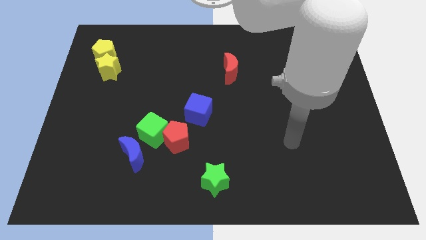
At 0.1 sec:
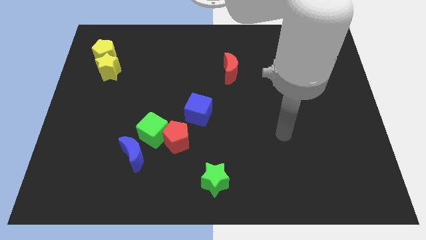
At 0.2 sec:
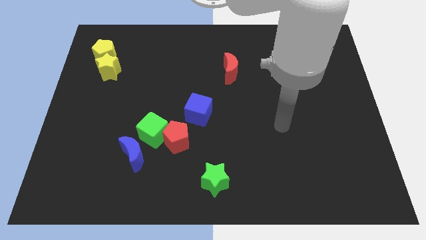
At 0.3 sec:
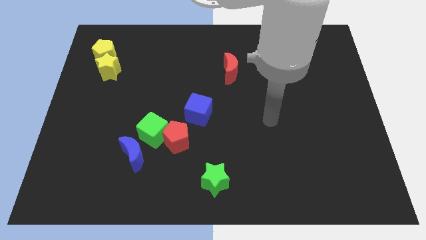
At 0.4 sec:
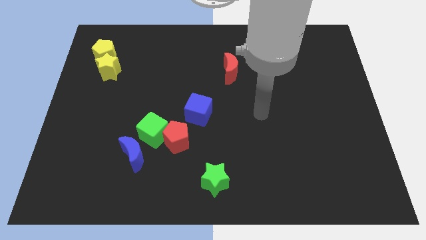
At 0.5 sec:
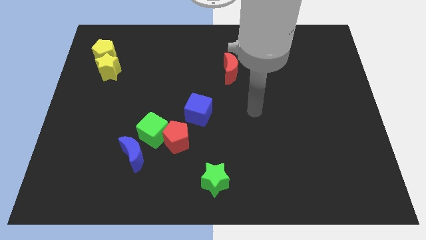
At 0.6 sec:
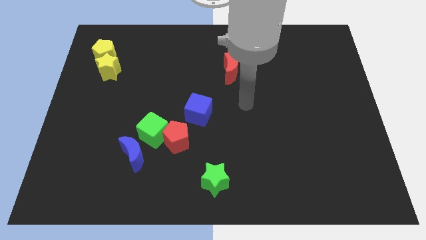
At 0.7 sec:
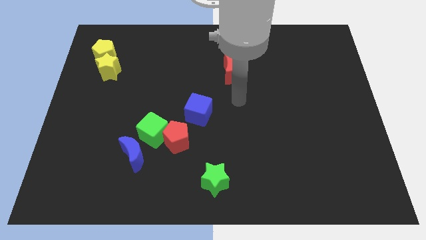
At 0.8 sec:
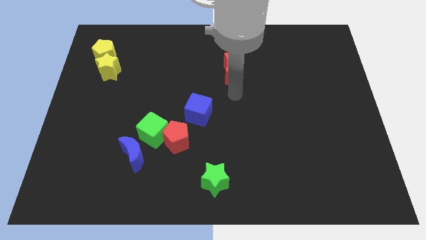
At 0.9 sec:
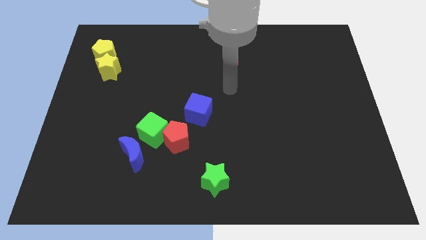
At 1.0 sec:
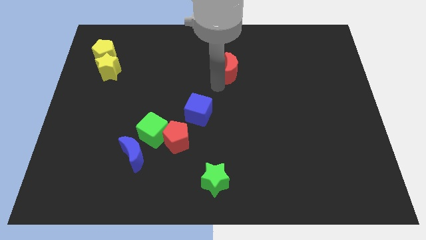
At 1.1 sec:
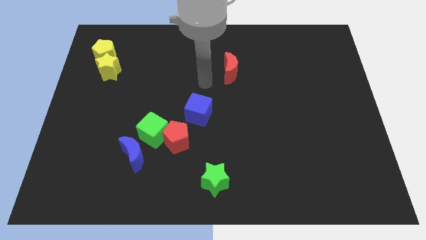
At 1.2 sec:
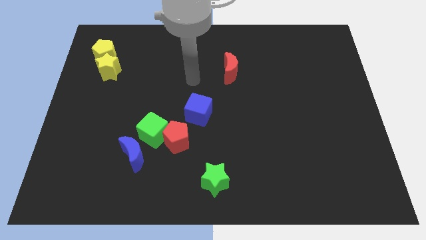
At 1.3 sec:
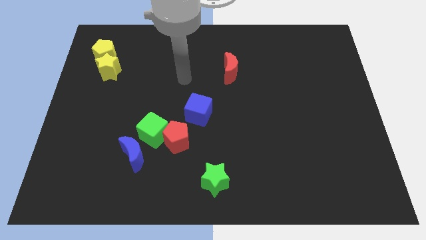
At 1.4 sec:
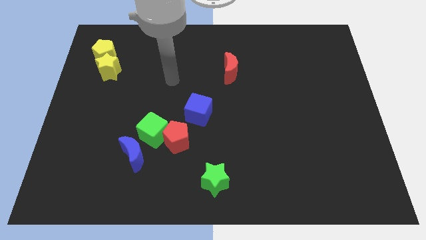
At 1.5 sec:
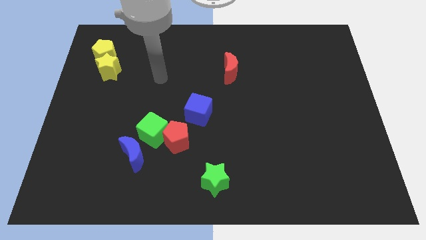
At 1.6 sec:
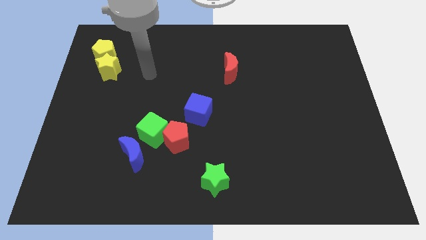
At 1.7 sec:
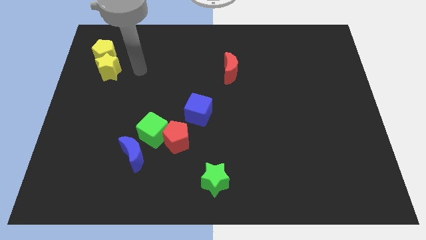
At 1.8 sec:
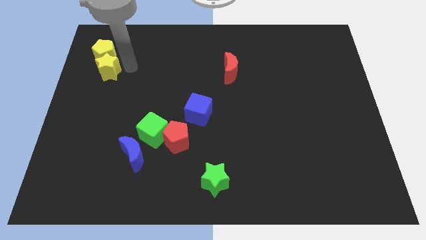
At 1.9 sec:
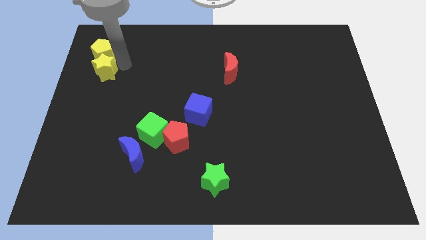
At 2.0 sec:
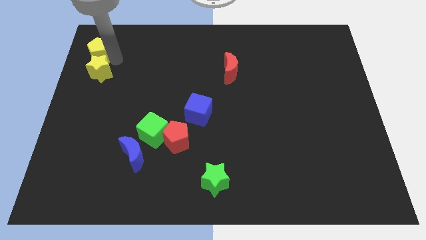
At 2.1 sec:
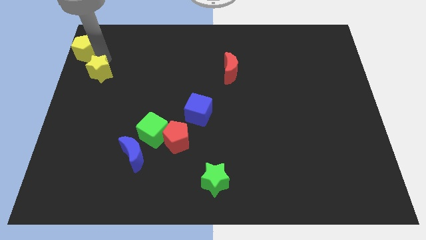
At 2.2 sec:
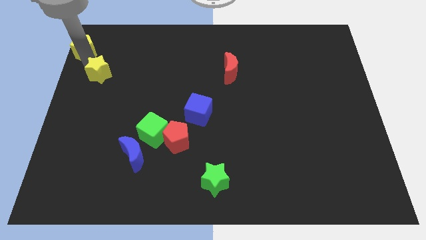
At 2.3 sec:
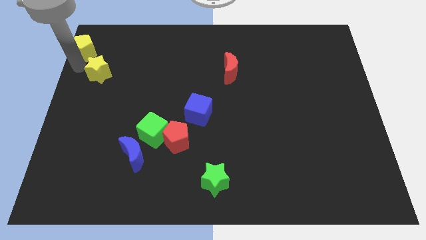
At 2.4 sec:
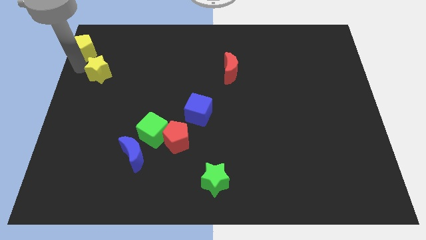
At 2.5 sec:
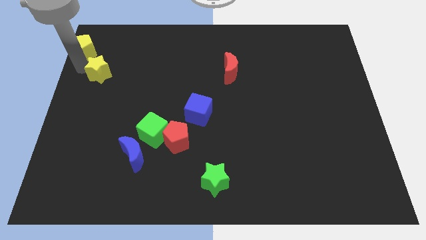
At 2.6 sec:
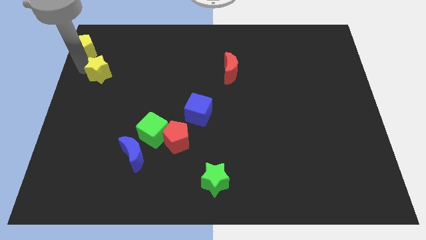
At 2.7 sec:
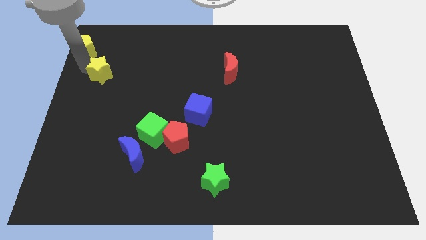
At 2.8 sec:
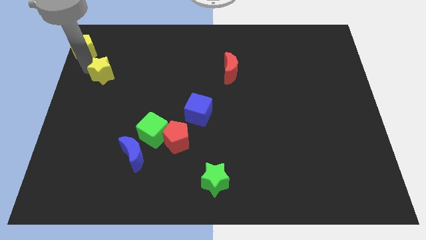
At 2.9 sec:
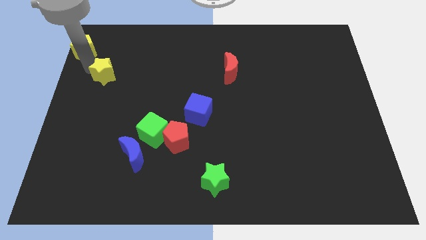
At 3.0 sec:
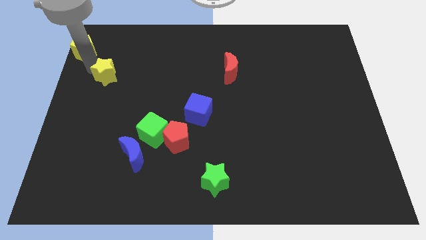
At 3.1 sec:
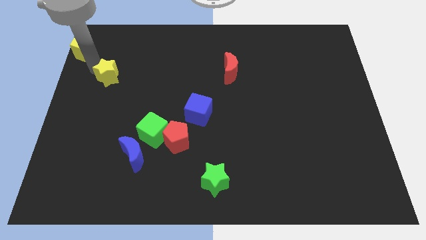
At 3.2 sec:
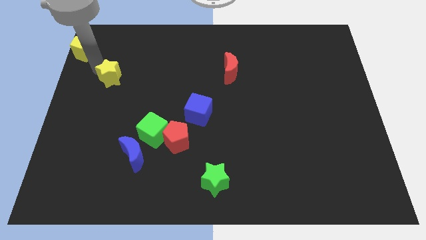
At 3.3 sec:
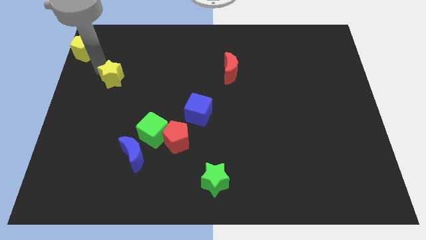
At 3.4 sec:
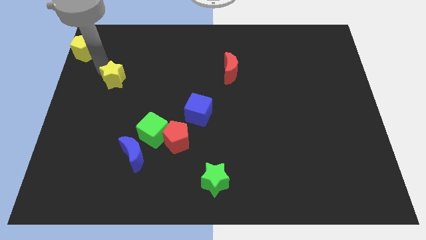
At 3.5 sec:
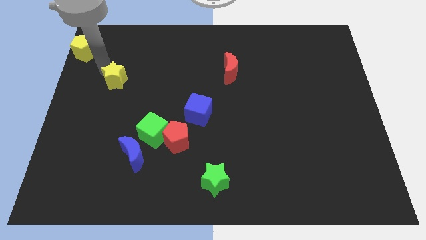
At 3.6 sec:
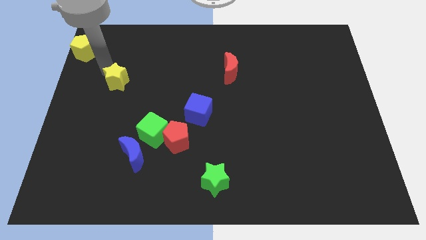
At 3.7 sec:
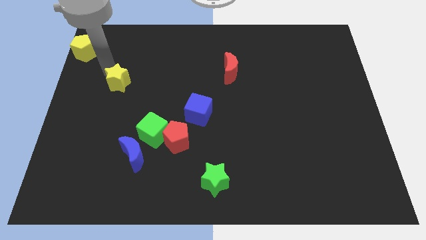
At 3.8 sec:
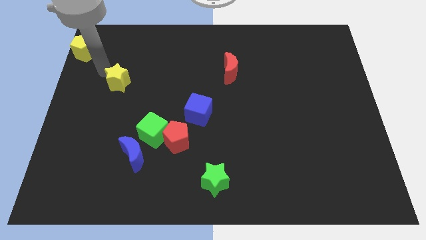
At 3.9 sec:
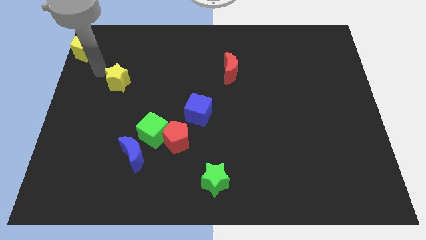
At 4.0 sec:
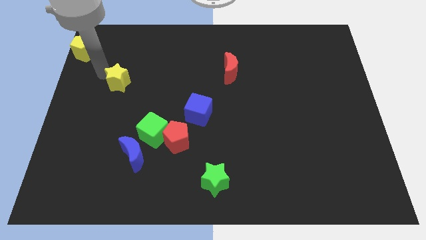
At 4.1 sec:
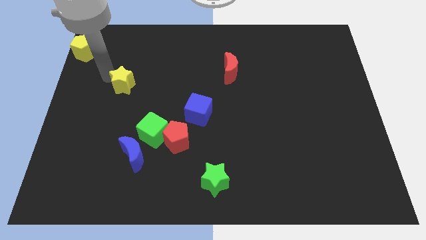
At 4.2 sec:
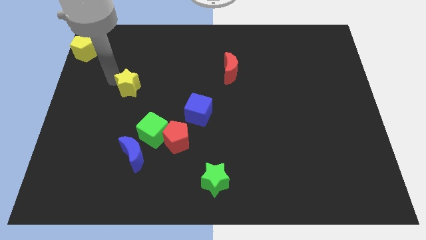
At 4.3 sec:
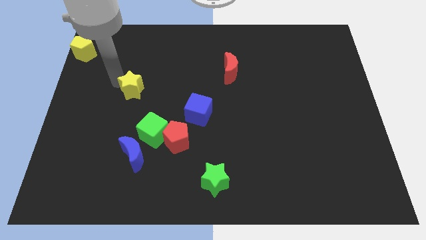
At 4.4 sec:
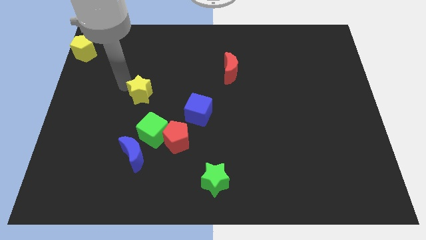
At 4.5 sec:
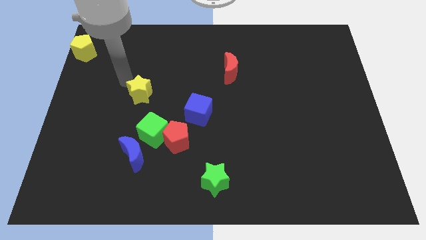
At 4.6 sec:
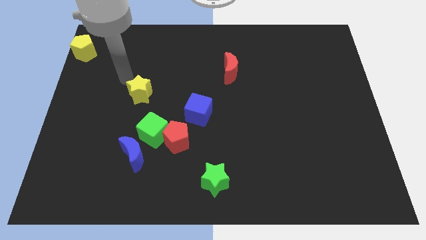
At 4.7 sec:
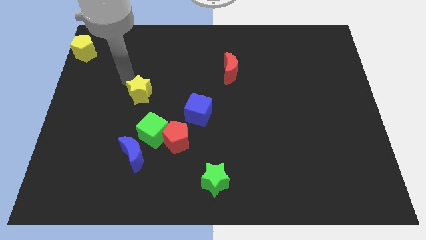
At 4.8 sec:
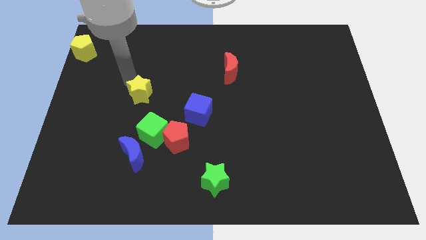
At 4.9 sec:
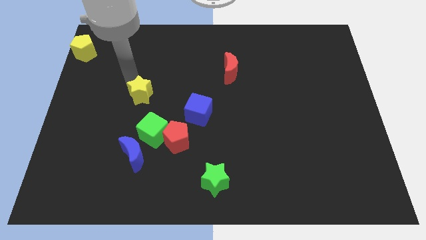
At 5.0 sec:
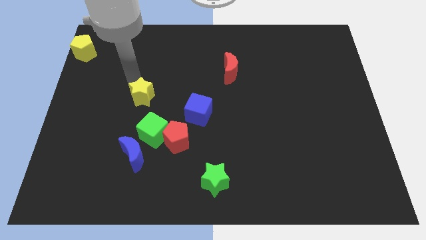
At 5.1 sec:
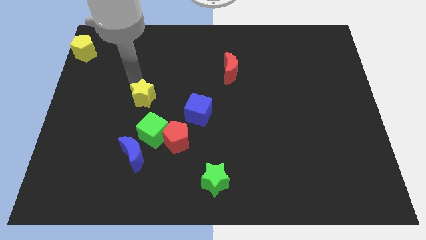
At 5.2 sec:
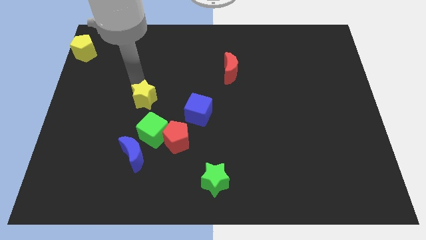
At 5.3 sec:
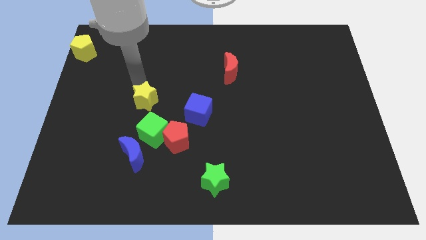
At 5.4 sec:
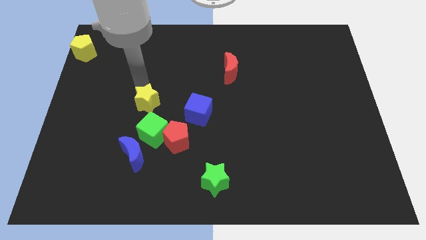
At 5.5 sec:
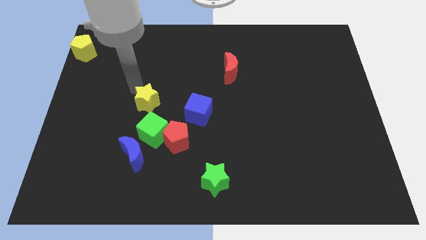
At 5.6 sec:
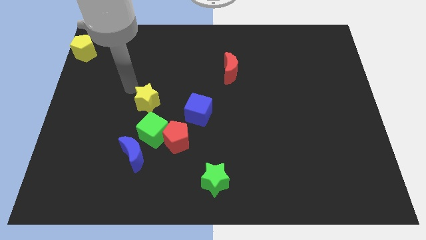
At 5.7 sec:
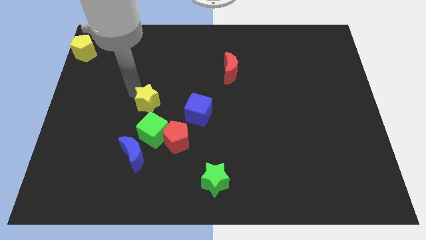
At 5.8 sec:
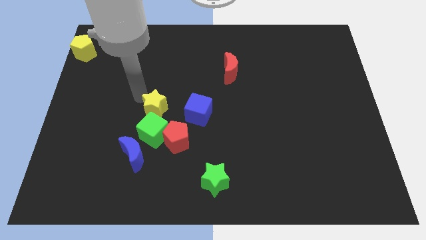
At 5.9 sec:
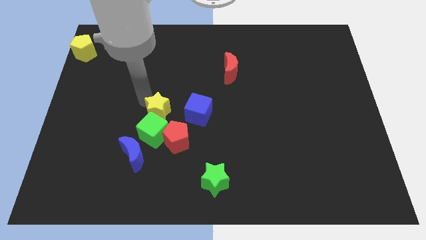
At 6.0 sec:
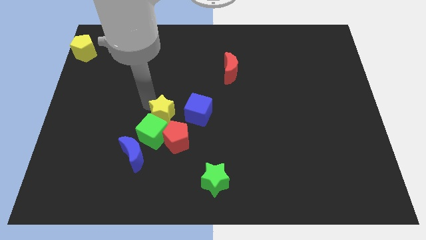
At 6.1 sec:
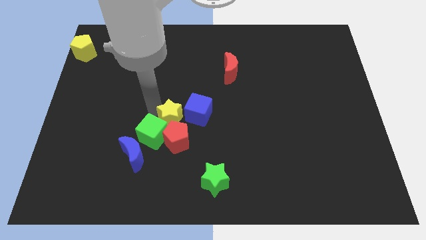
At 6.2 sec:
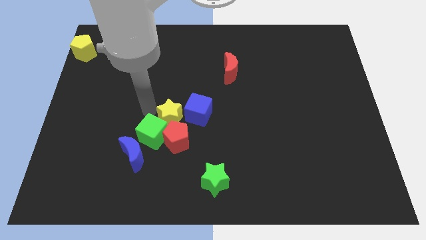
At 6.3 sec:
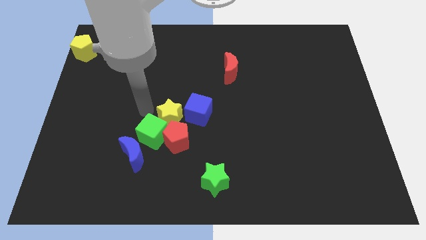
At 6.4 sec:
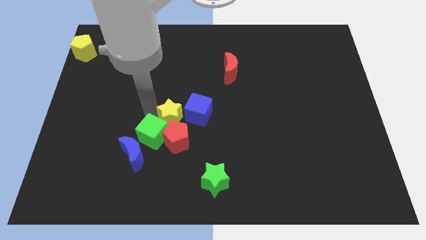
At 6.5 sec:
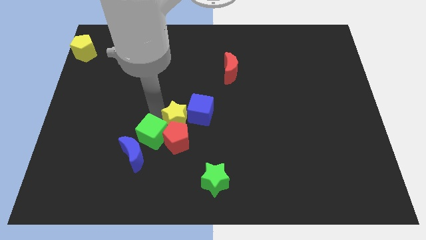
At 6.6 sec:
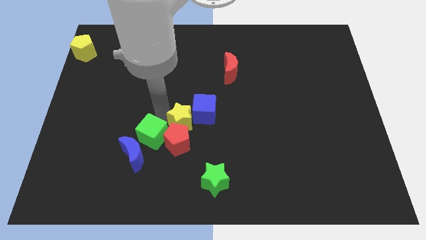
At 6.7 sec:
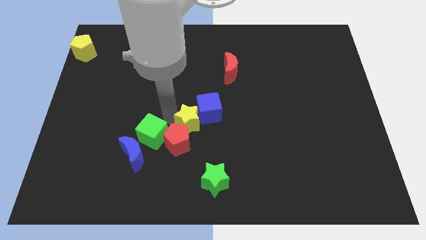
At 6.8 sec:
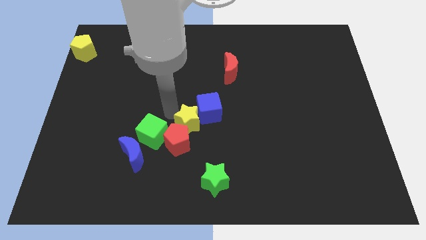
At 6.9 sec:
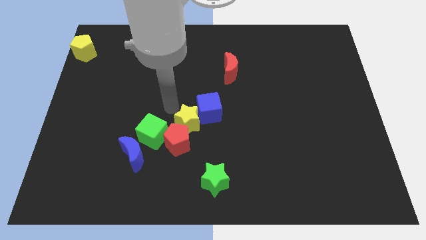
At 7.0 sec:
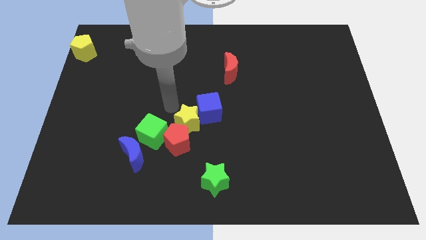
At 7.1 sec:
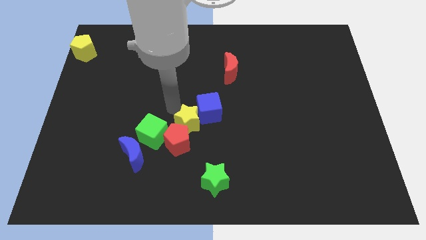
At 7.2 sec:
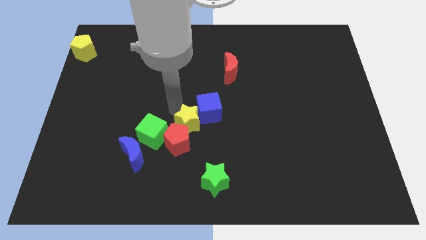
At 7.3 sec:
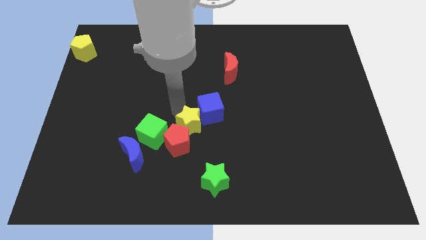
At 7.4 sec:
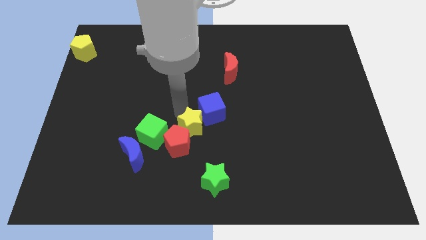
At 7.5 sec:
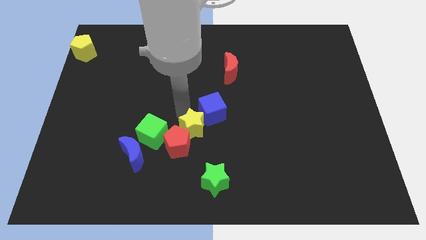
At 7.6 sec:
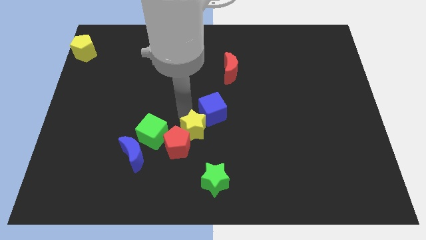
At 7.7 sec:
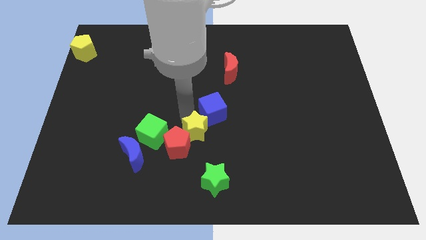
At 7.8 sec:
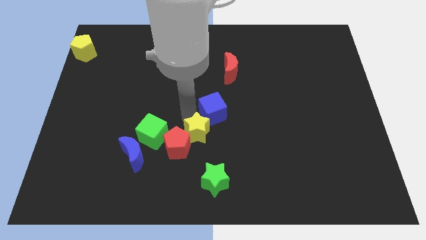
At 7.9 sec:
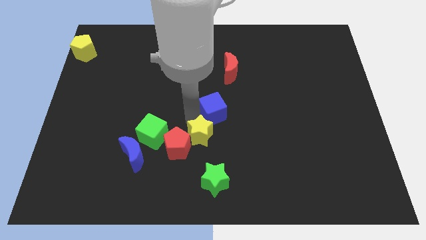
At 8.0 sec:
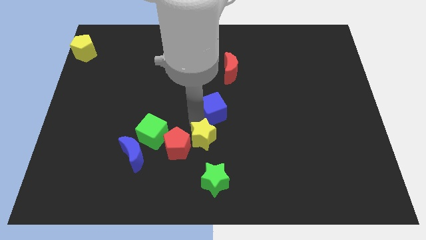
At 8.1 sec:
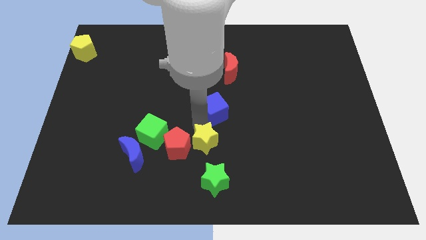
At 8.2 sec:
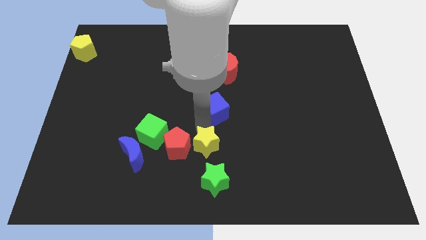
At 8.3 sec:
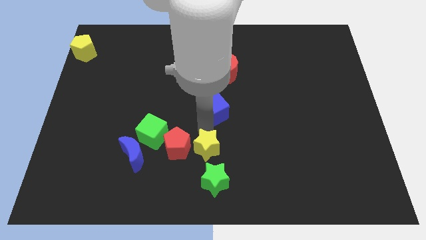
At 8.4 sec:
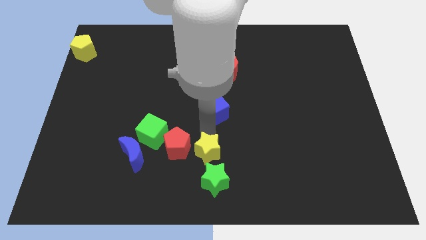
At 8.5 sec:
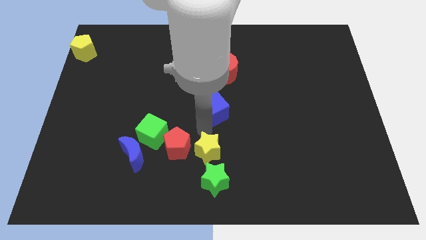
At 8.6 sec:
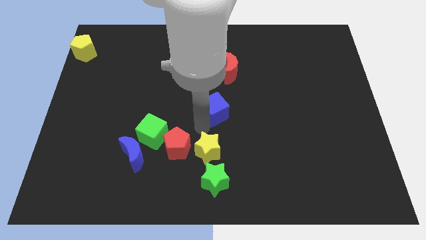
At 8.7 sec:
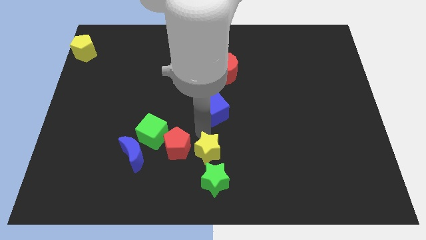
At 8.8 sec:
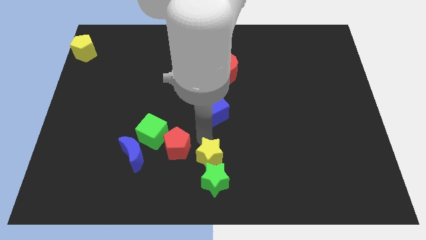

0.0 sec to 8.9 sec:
move the yellow star to the green star
